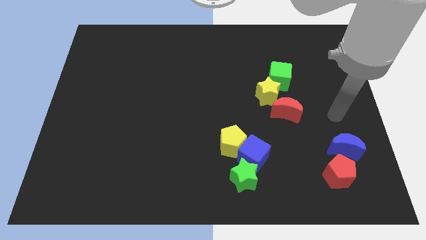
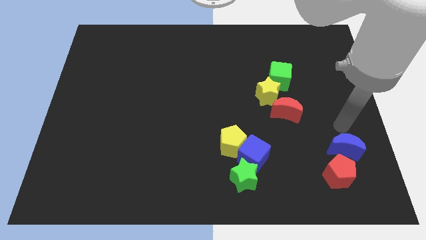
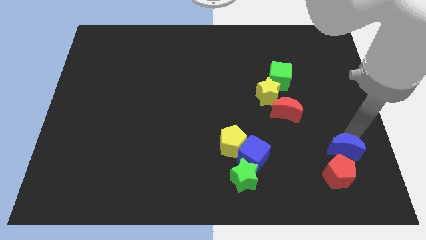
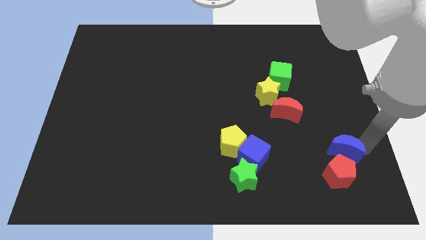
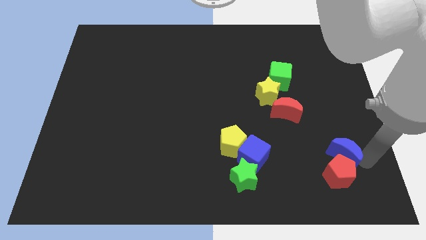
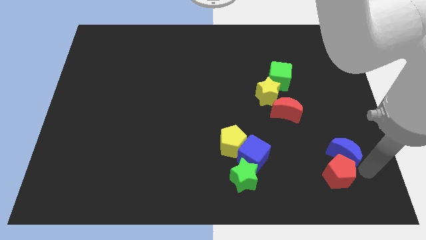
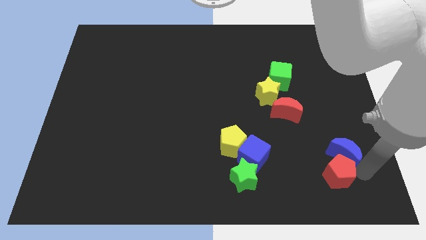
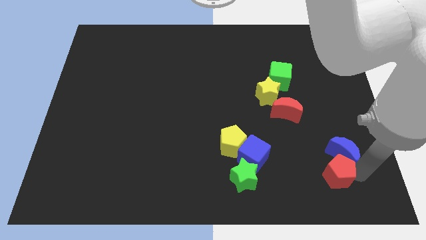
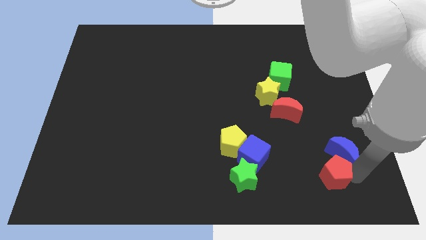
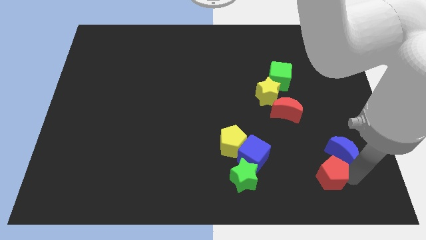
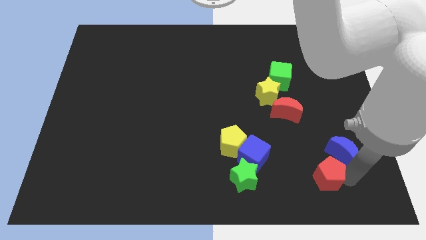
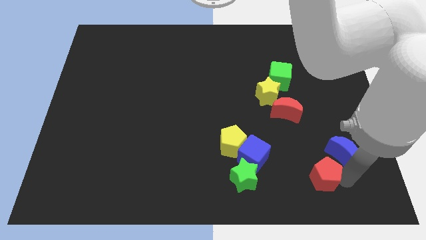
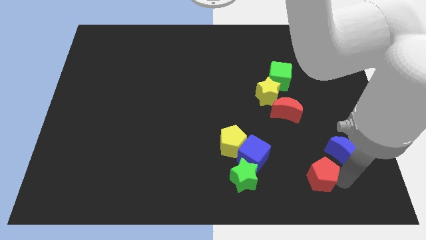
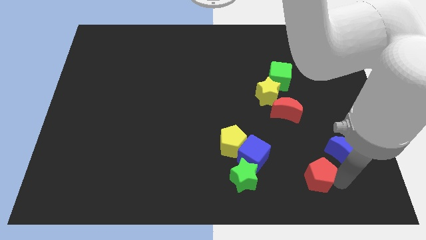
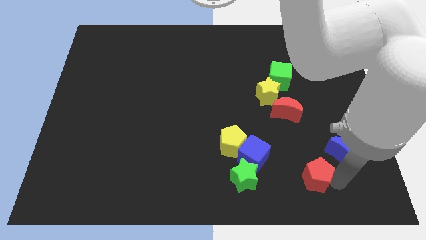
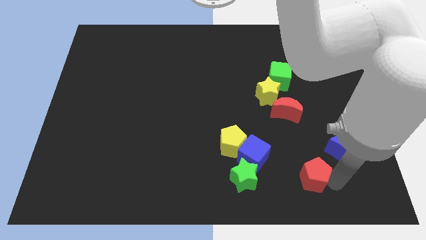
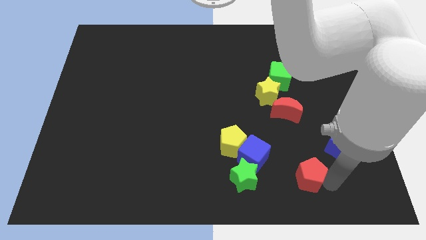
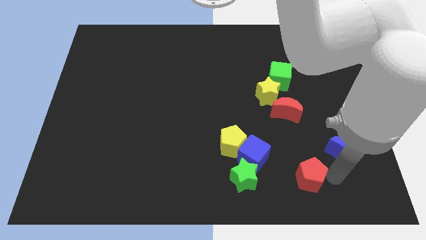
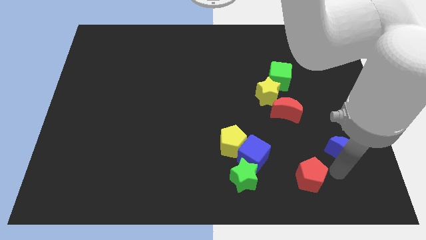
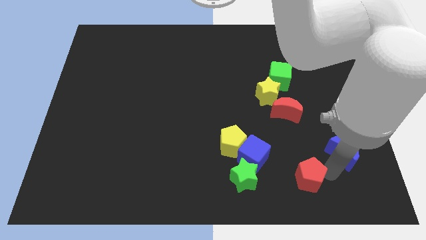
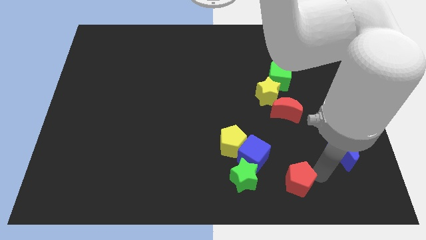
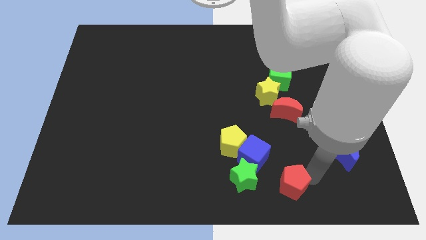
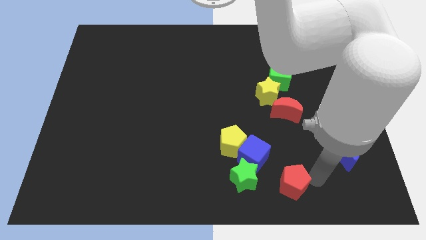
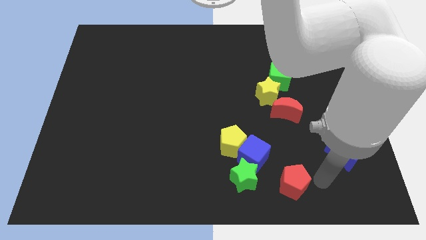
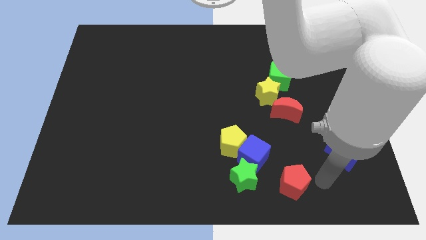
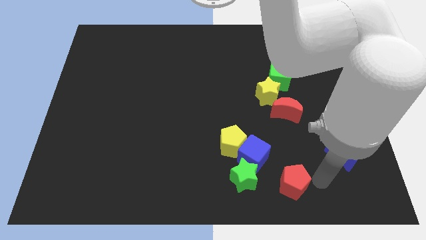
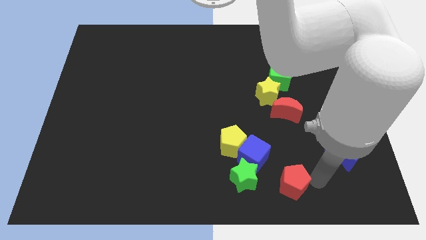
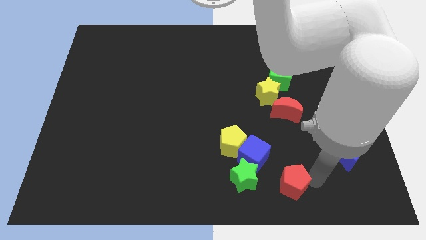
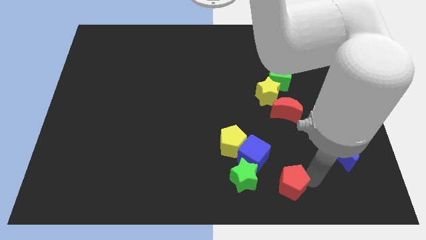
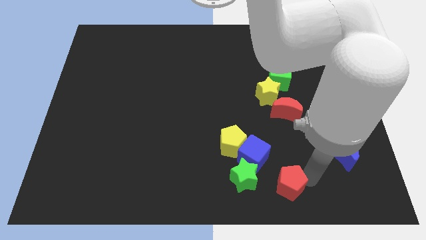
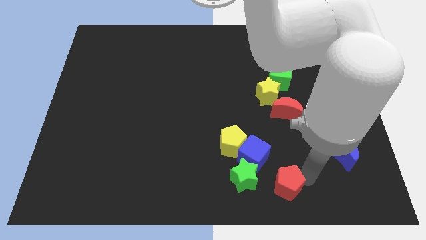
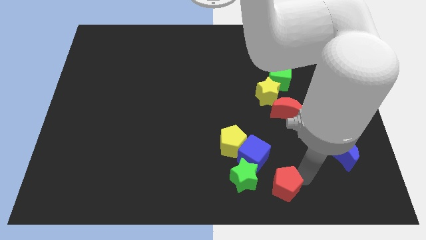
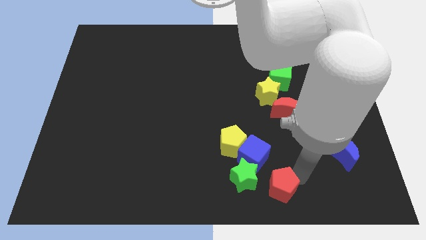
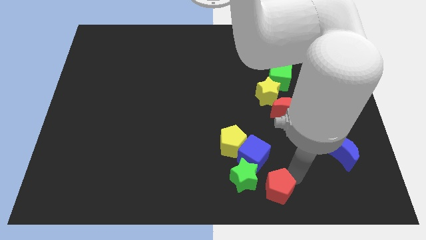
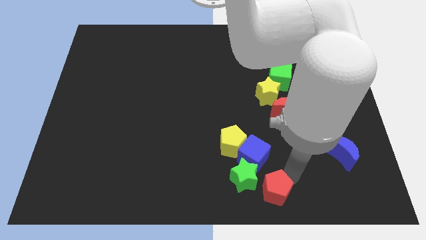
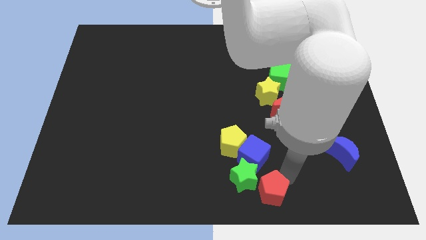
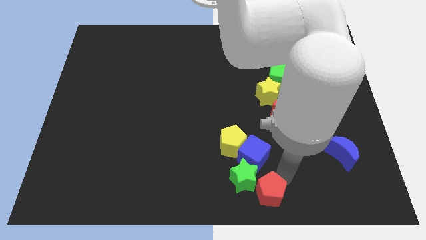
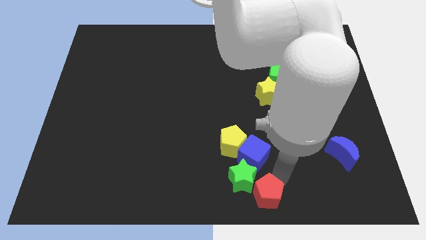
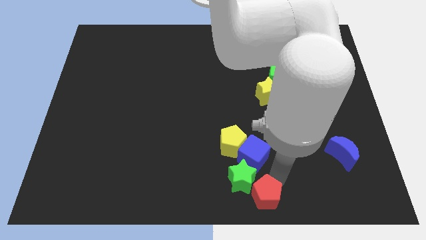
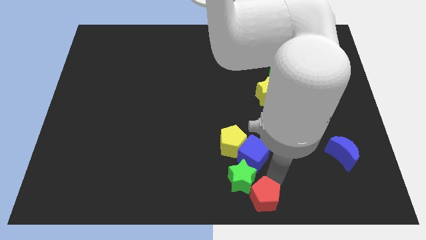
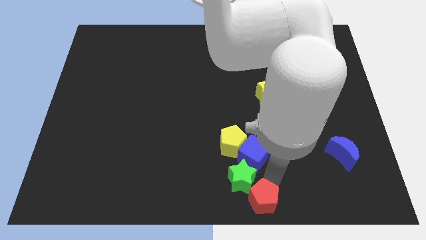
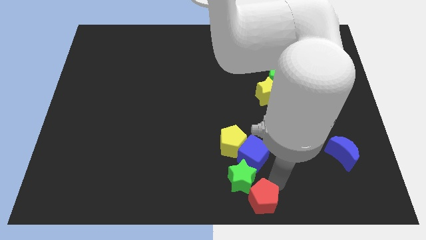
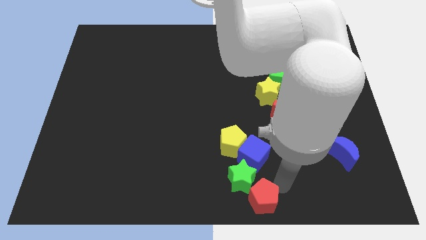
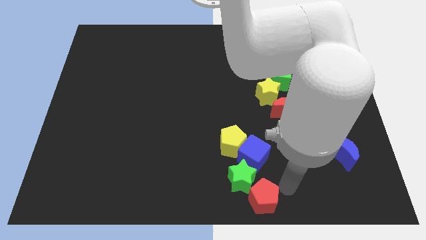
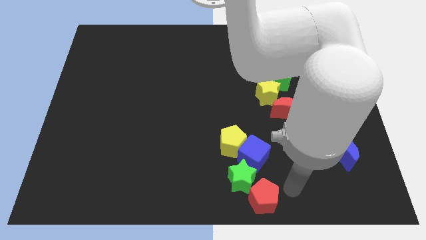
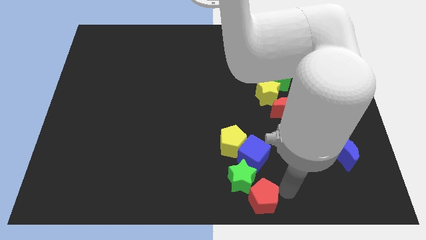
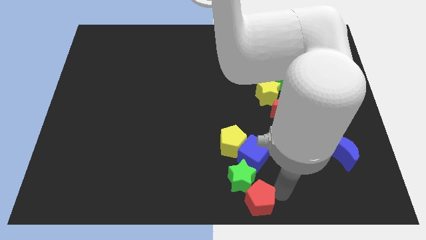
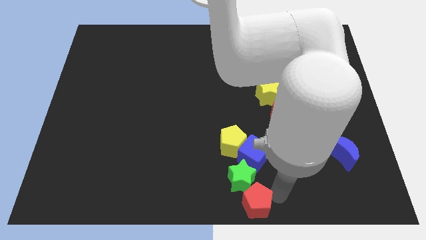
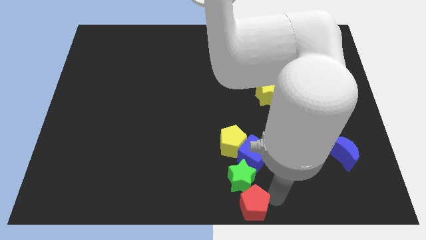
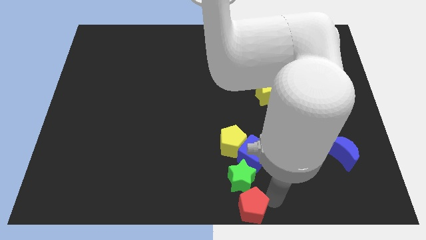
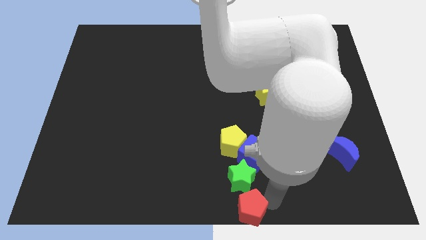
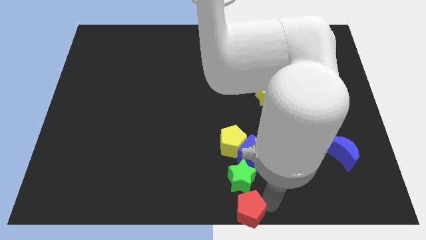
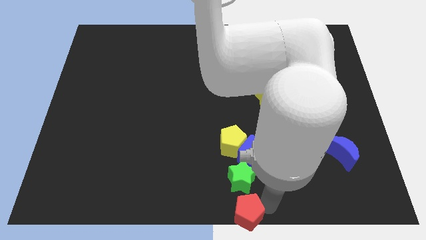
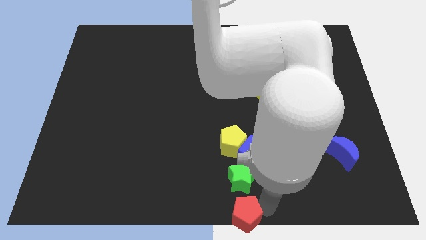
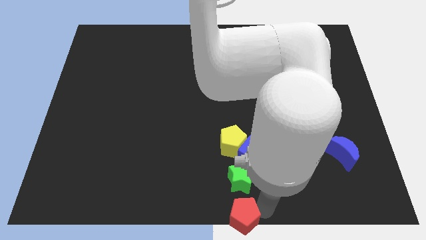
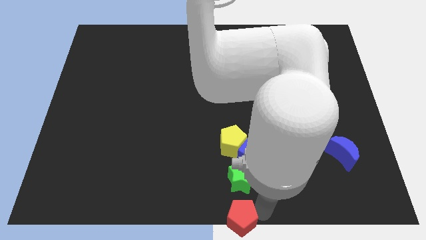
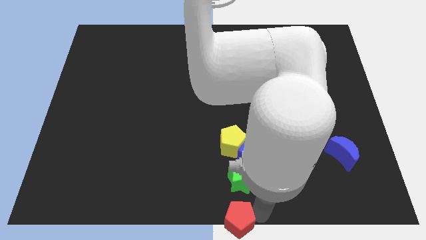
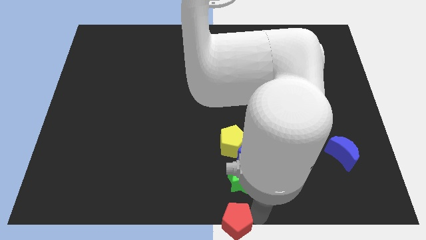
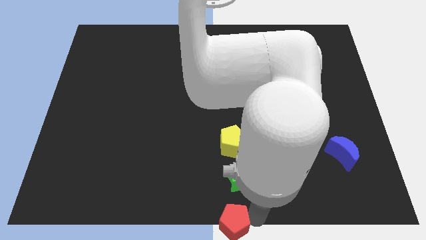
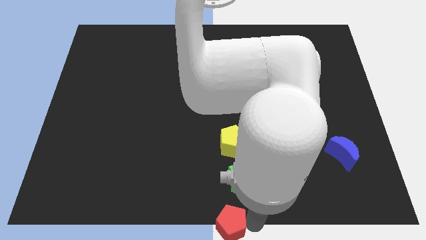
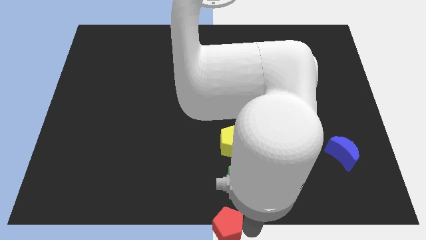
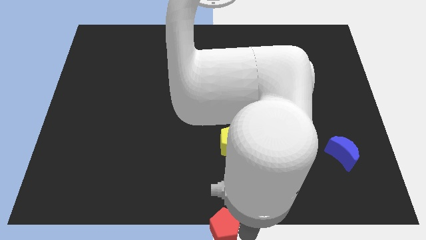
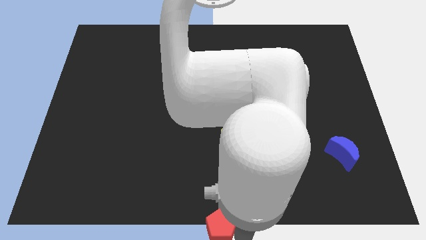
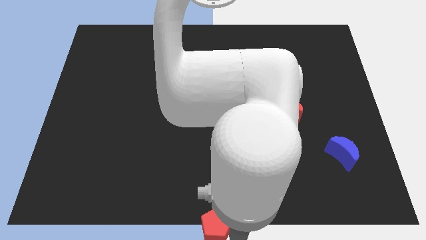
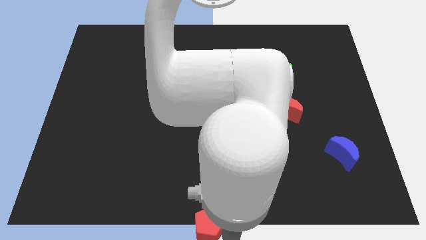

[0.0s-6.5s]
slide the red pentagon to the left

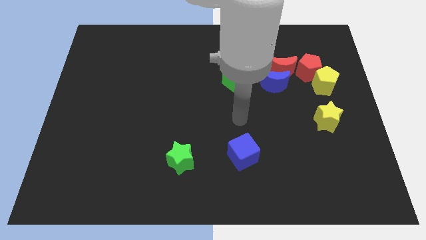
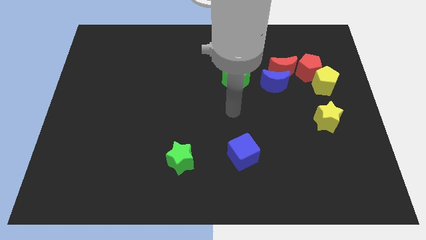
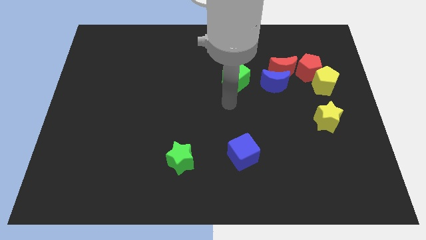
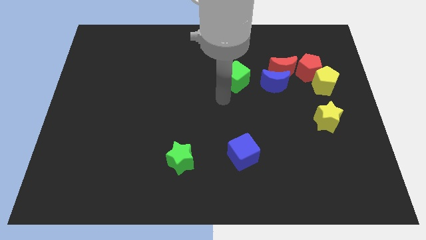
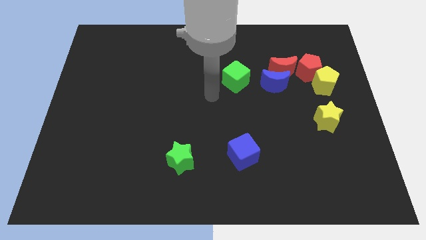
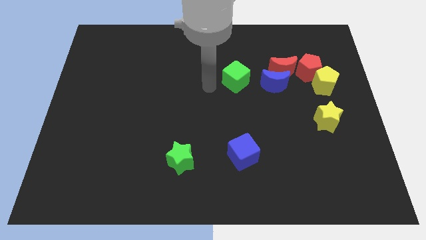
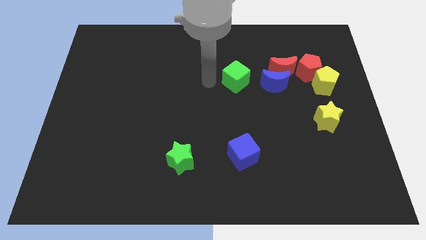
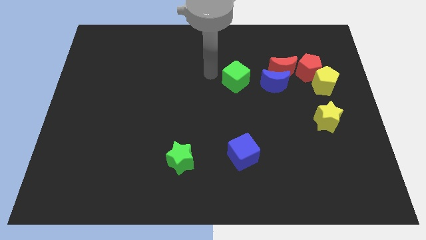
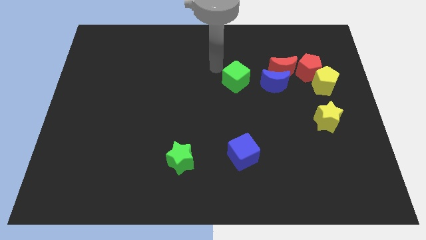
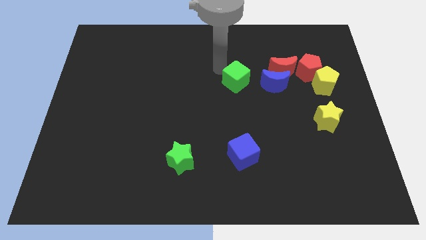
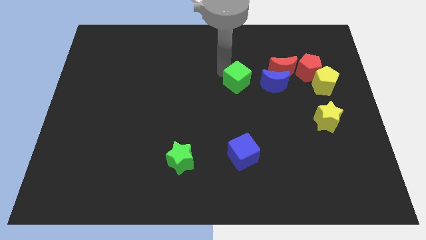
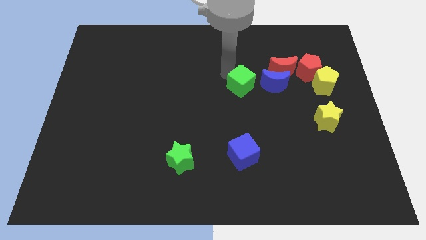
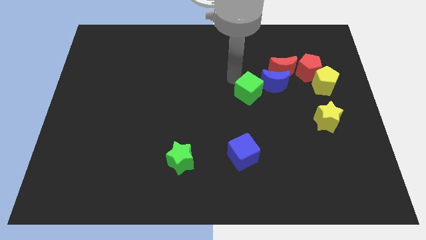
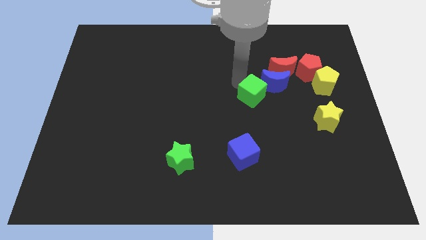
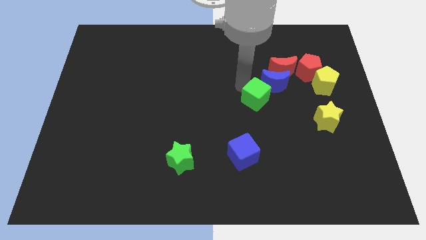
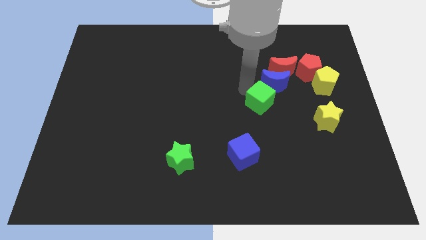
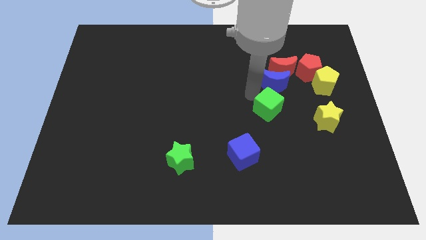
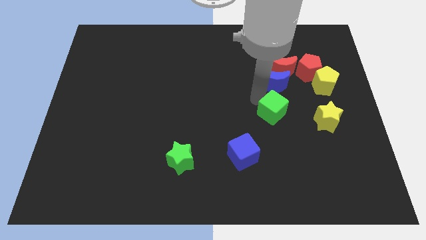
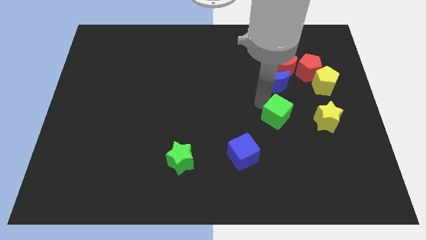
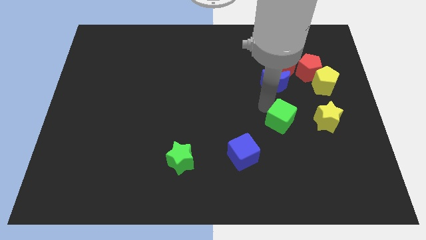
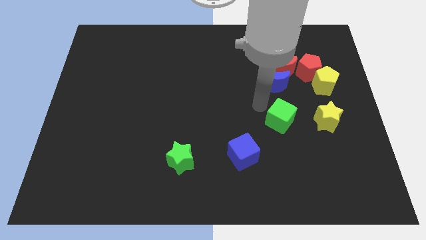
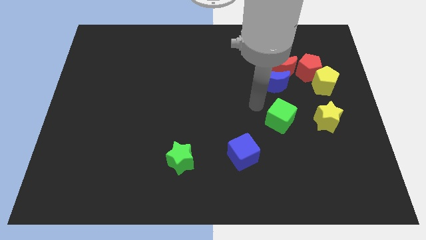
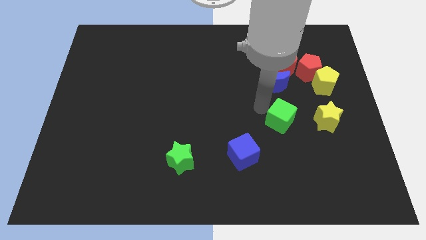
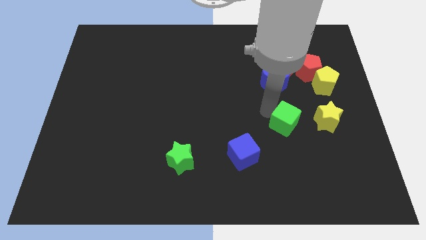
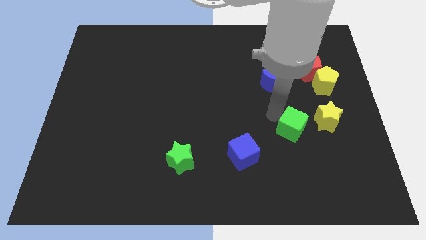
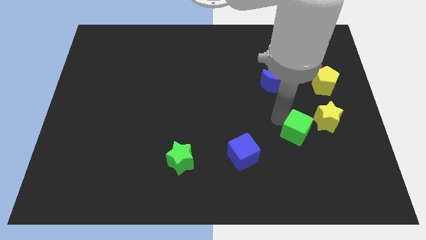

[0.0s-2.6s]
move the green cube down and to the right
